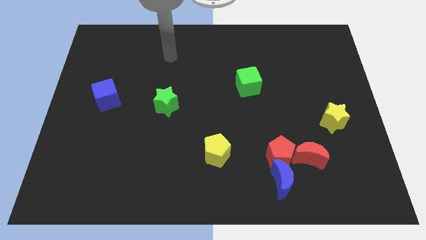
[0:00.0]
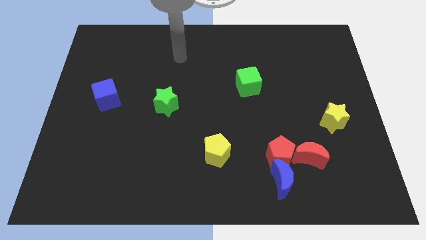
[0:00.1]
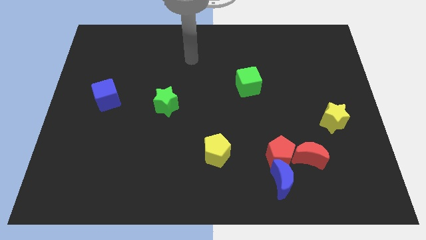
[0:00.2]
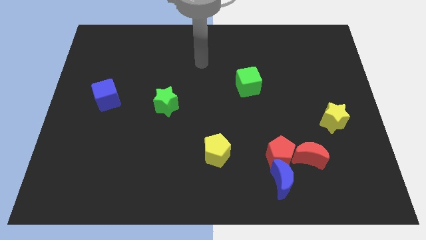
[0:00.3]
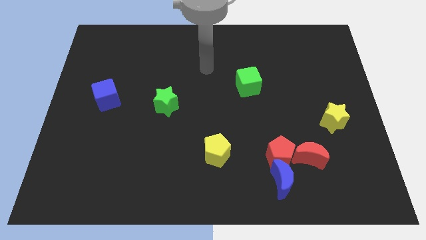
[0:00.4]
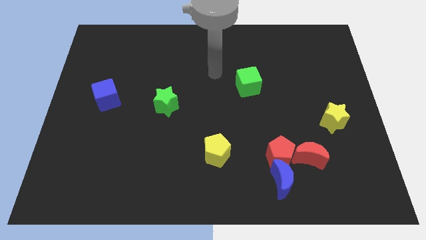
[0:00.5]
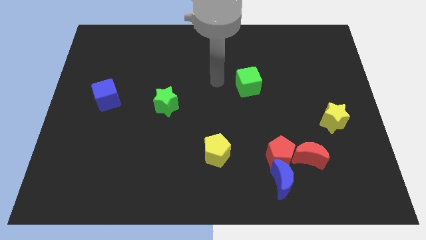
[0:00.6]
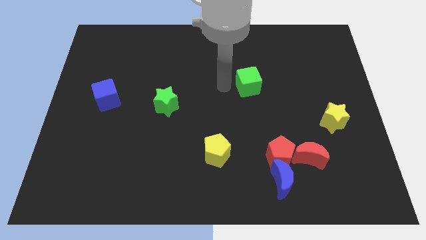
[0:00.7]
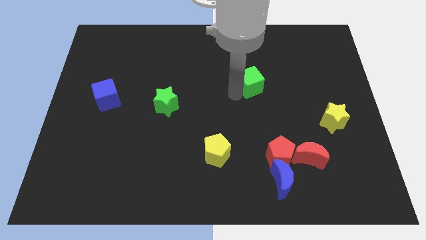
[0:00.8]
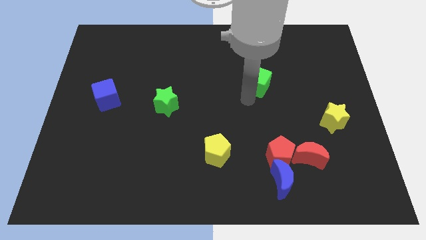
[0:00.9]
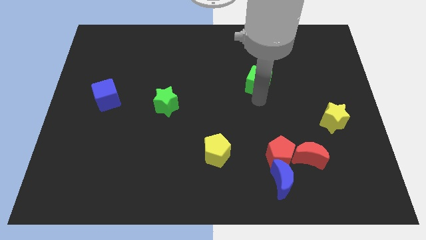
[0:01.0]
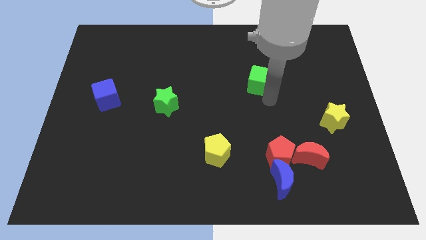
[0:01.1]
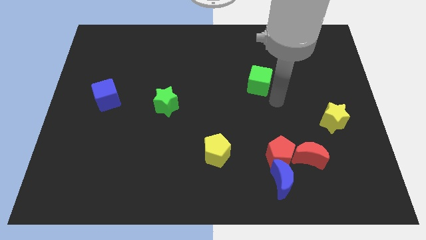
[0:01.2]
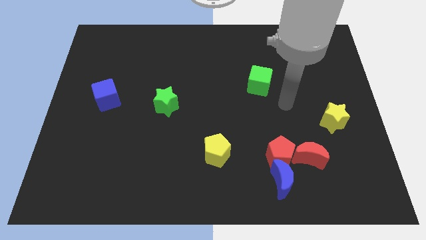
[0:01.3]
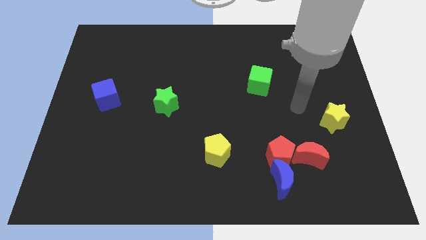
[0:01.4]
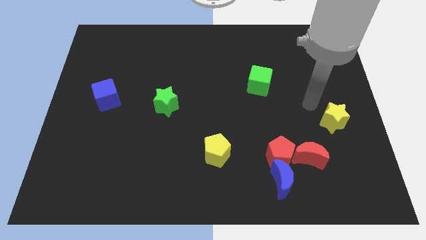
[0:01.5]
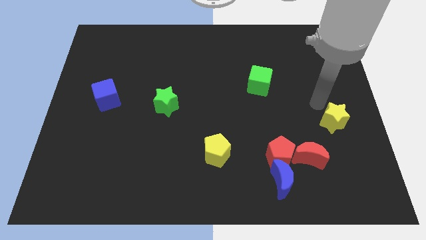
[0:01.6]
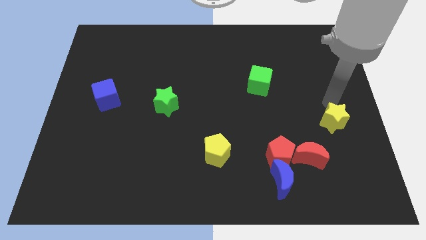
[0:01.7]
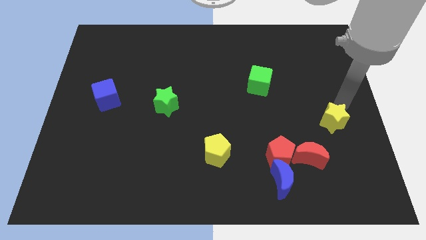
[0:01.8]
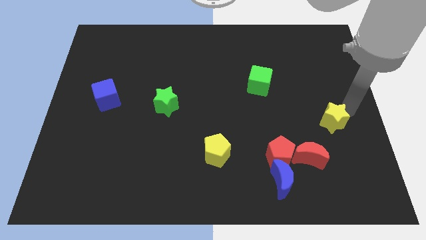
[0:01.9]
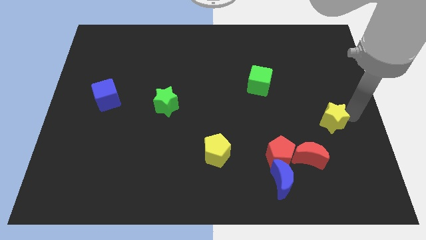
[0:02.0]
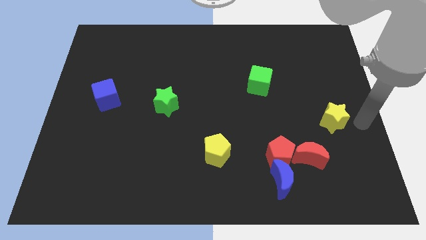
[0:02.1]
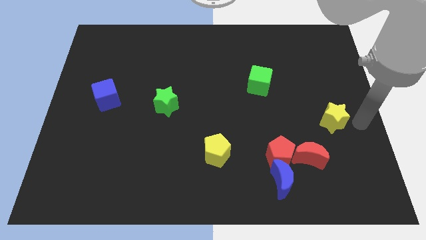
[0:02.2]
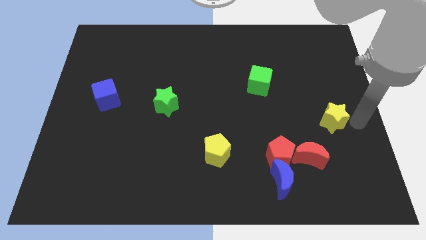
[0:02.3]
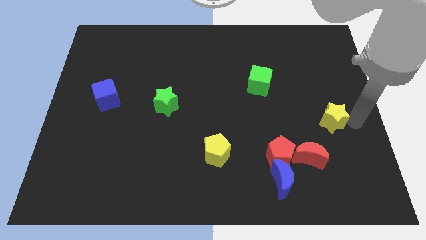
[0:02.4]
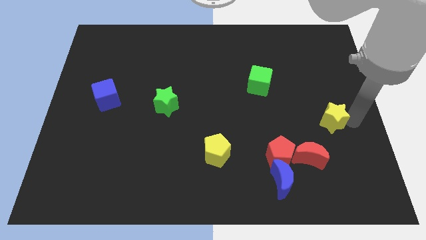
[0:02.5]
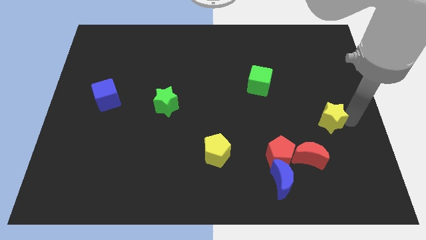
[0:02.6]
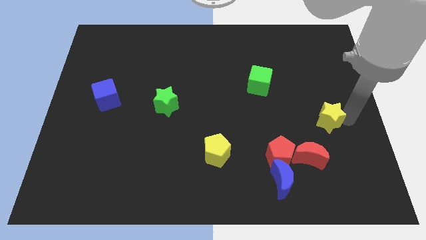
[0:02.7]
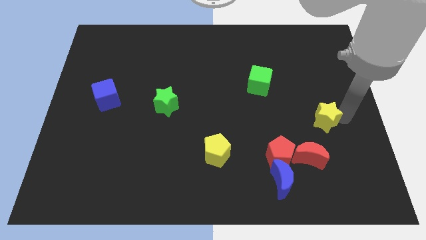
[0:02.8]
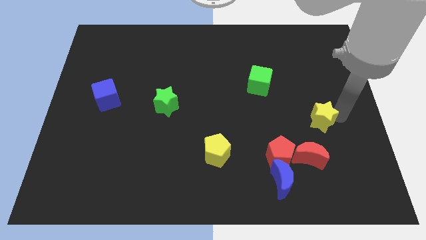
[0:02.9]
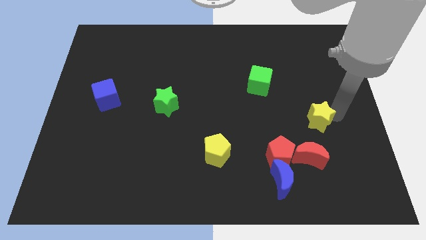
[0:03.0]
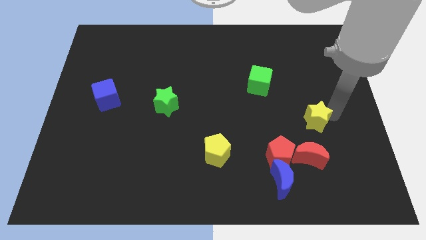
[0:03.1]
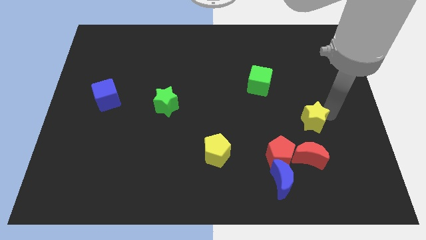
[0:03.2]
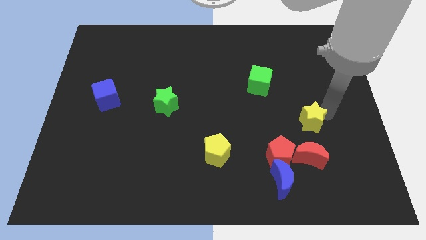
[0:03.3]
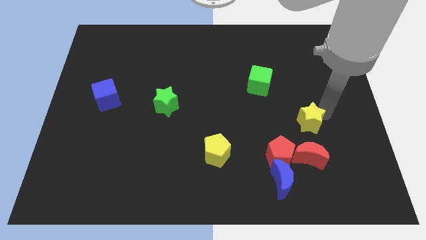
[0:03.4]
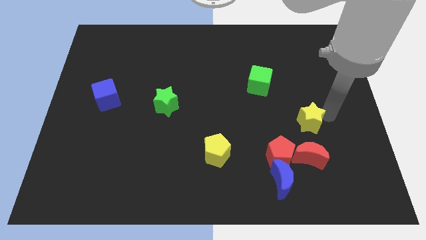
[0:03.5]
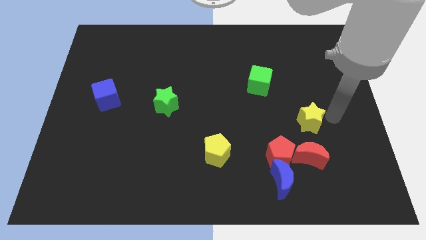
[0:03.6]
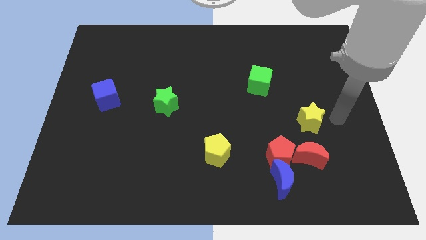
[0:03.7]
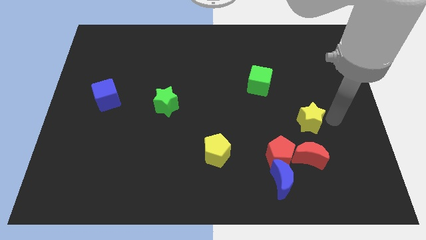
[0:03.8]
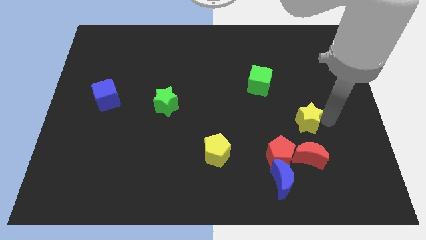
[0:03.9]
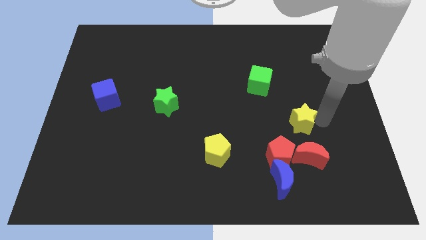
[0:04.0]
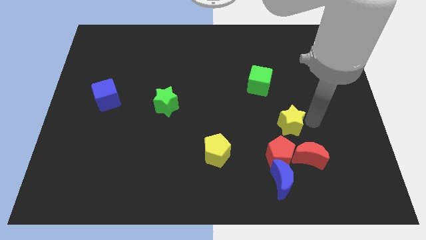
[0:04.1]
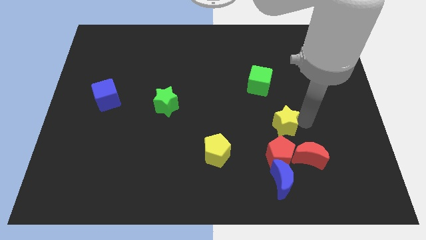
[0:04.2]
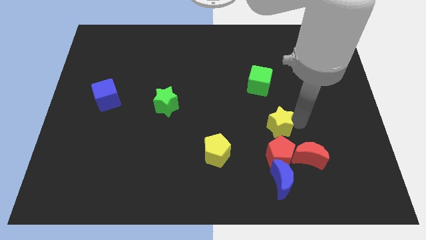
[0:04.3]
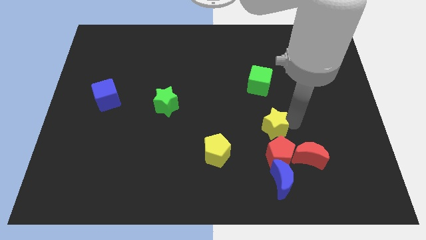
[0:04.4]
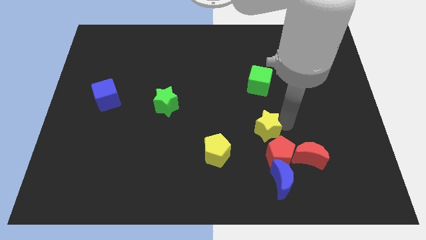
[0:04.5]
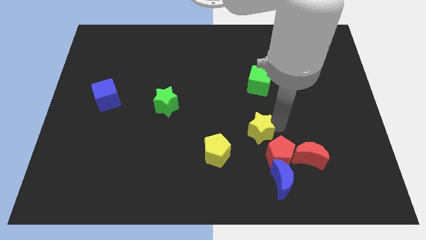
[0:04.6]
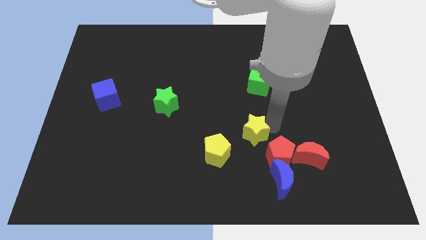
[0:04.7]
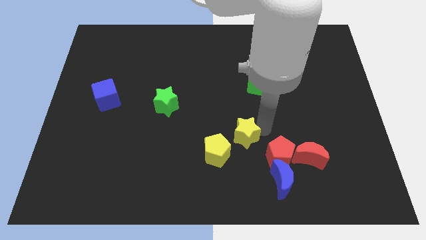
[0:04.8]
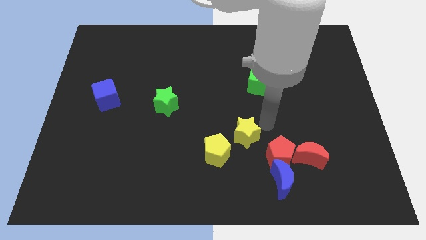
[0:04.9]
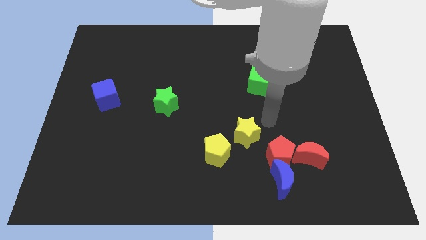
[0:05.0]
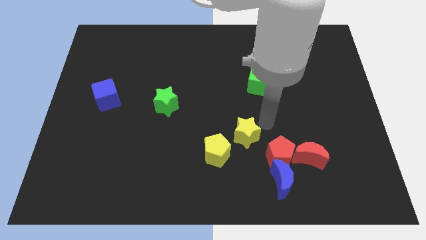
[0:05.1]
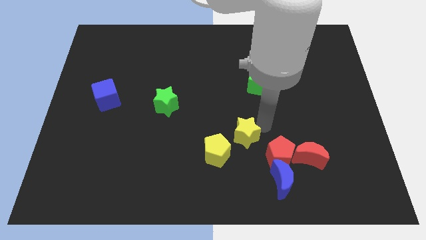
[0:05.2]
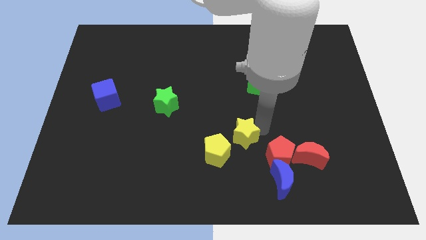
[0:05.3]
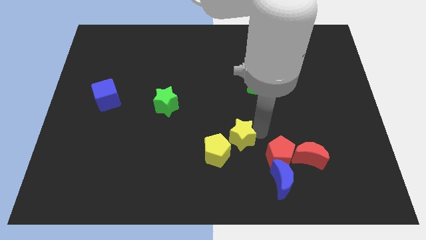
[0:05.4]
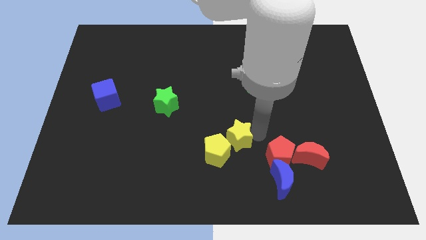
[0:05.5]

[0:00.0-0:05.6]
move the yellow star towards the yellow pentagon

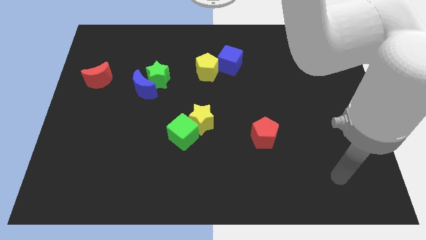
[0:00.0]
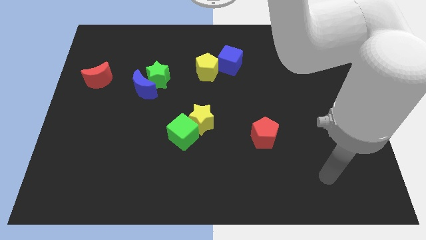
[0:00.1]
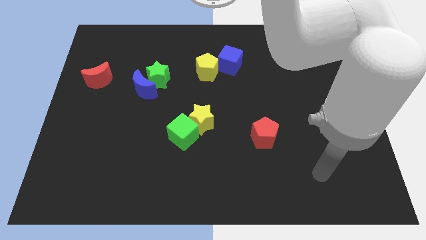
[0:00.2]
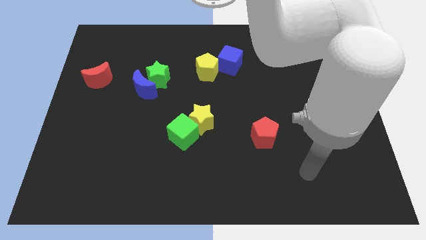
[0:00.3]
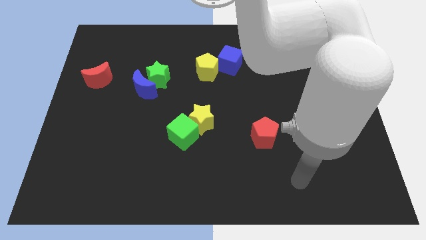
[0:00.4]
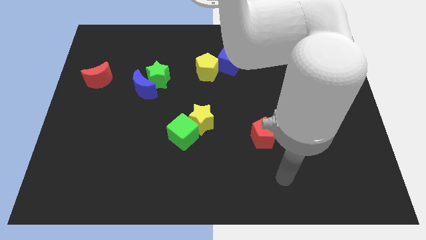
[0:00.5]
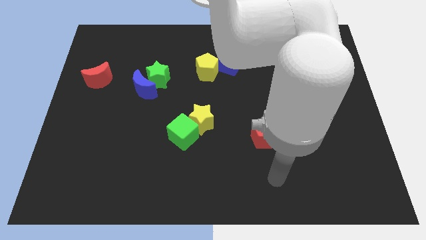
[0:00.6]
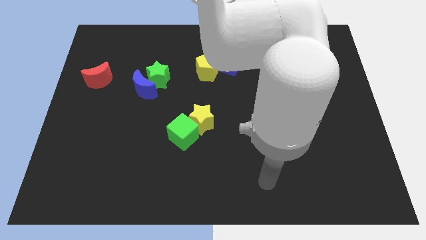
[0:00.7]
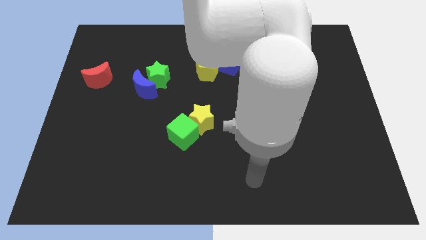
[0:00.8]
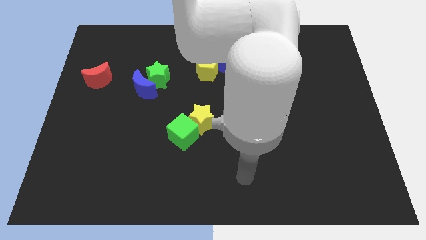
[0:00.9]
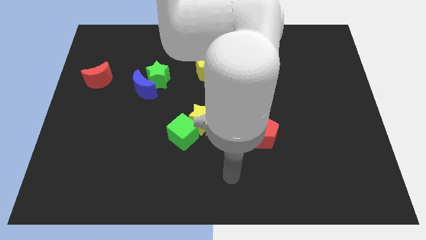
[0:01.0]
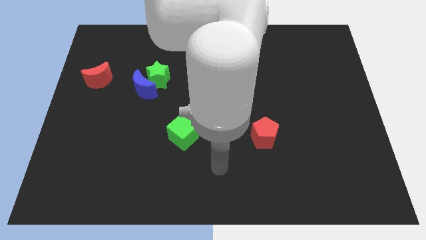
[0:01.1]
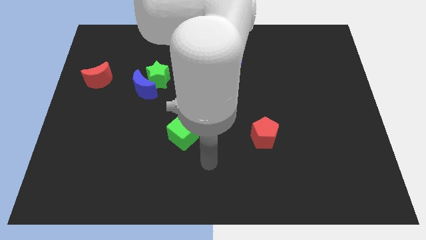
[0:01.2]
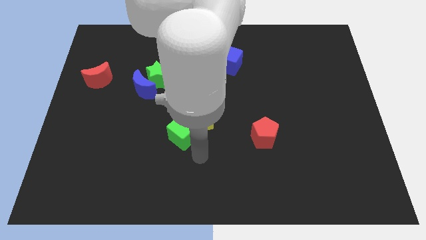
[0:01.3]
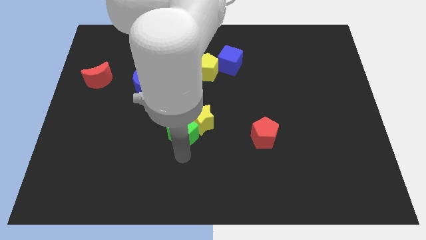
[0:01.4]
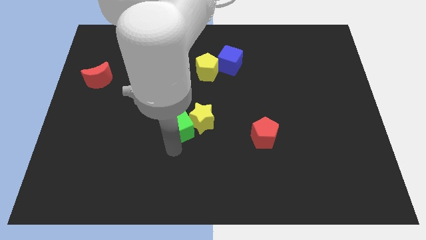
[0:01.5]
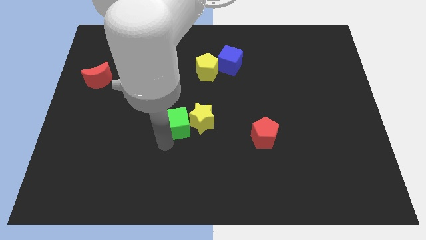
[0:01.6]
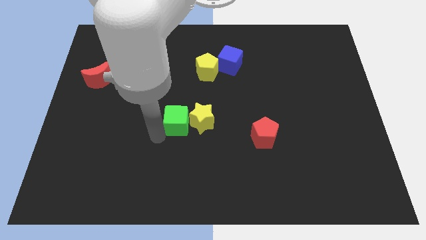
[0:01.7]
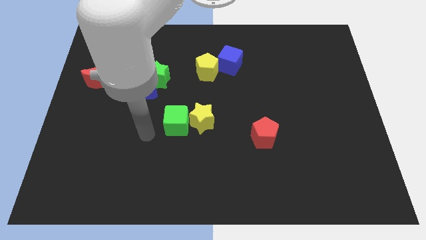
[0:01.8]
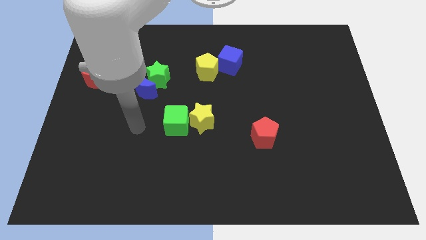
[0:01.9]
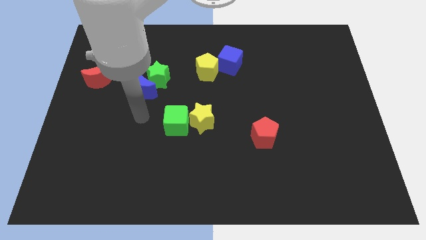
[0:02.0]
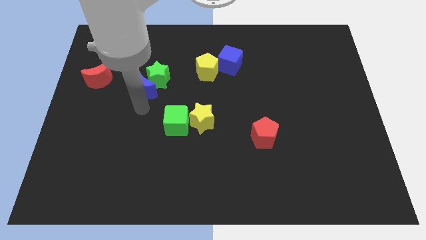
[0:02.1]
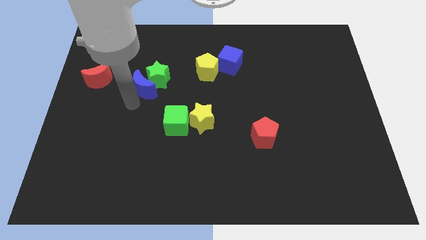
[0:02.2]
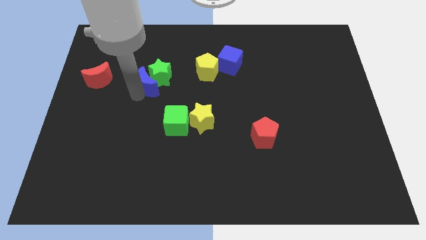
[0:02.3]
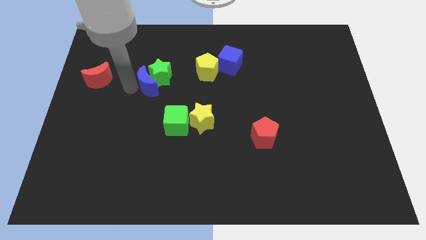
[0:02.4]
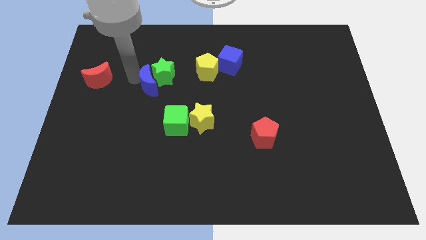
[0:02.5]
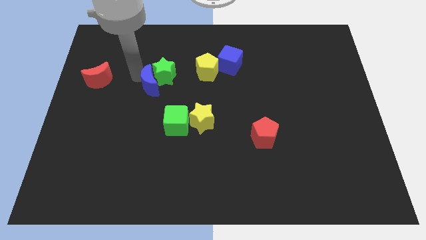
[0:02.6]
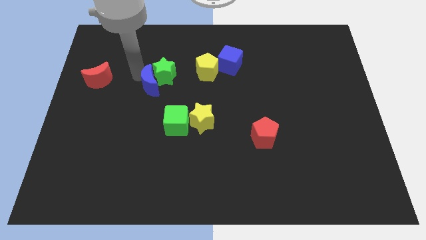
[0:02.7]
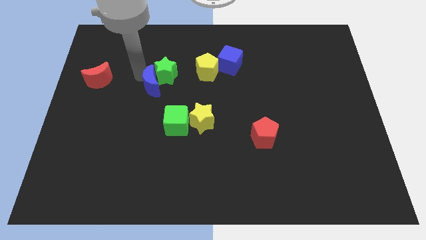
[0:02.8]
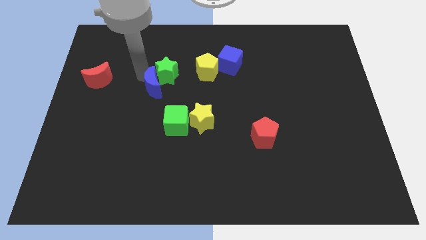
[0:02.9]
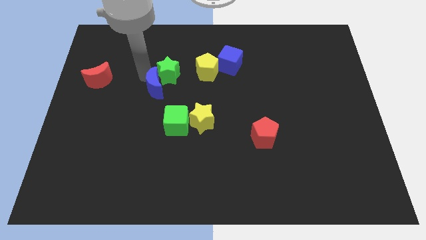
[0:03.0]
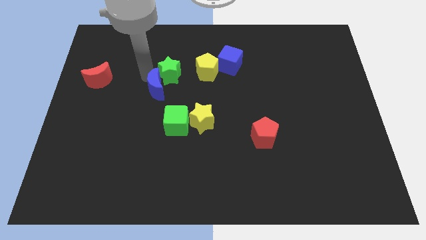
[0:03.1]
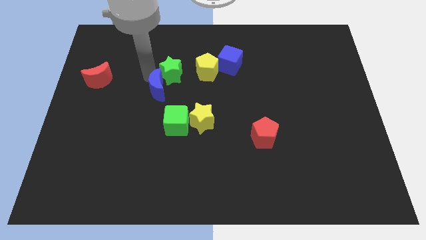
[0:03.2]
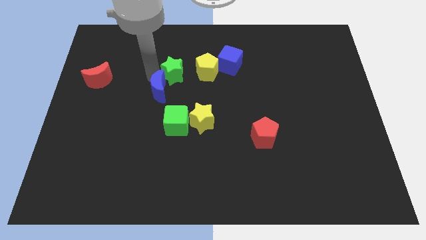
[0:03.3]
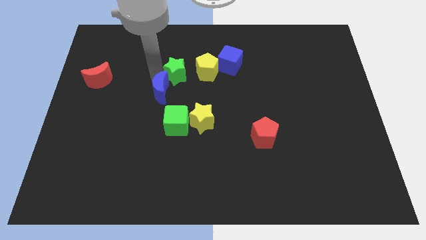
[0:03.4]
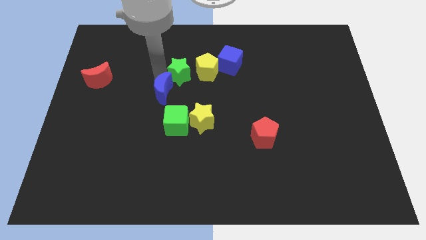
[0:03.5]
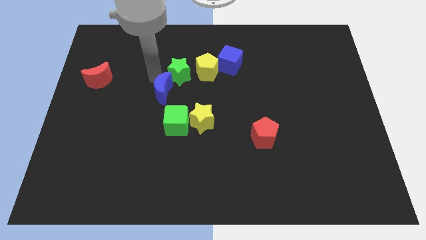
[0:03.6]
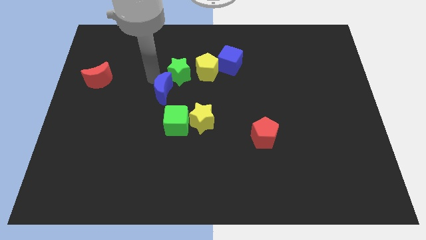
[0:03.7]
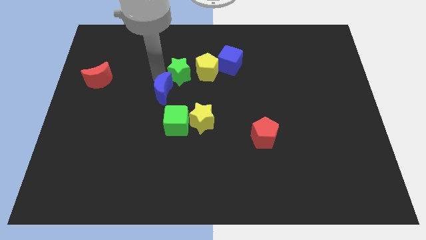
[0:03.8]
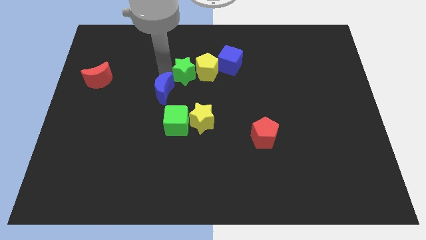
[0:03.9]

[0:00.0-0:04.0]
move the green star next to the yellow pentagon
